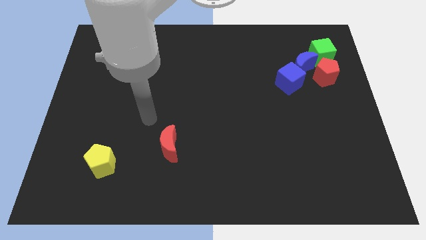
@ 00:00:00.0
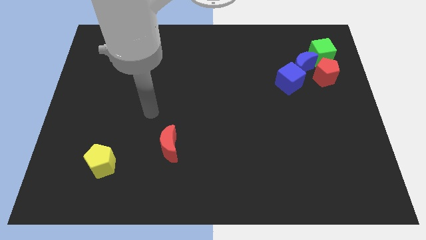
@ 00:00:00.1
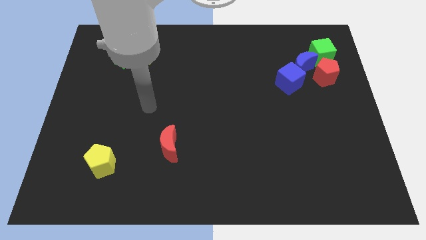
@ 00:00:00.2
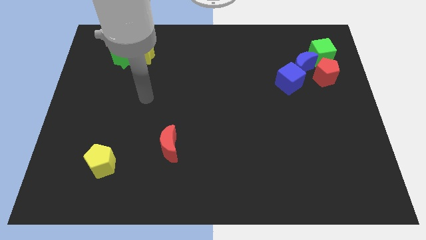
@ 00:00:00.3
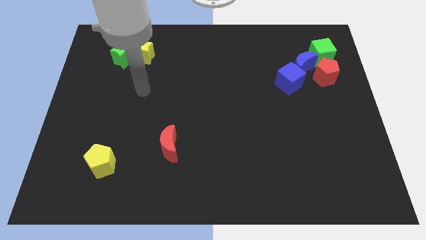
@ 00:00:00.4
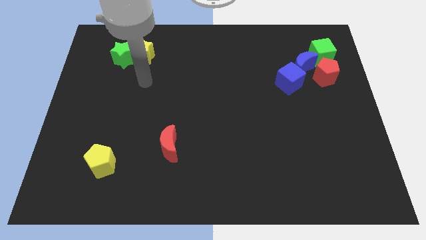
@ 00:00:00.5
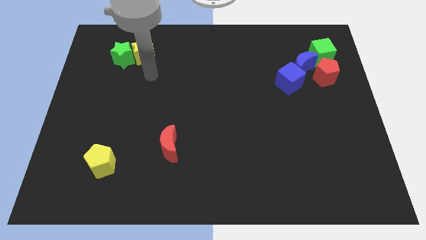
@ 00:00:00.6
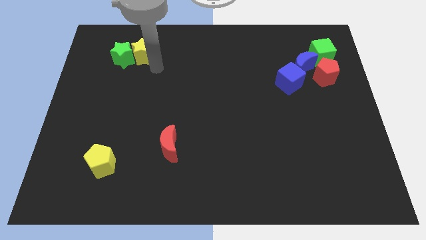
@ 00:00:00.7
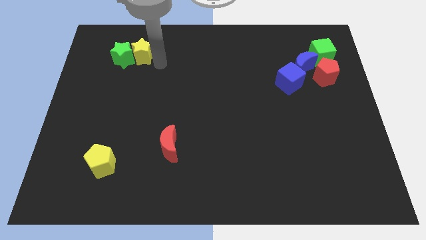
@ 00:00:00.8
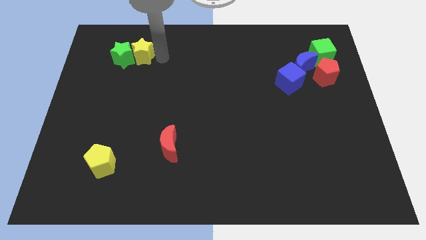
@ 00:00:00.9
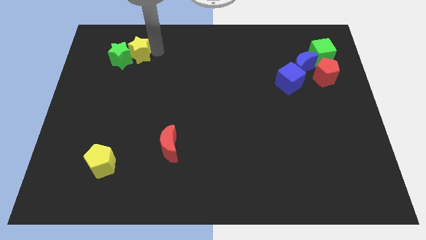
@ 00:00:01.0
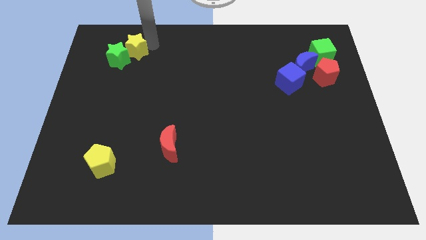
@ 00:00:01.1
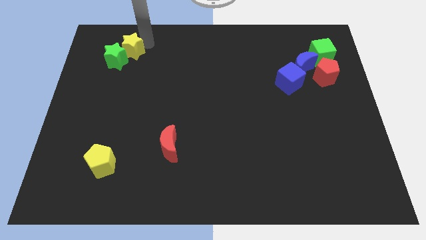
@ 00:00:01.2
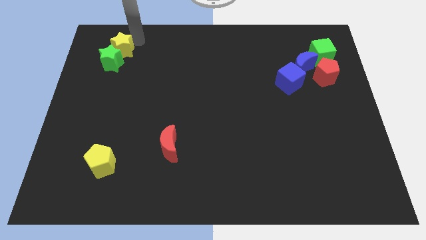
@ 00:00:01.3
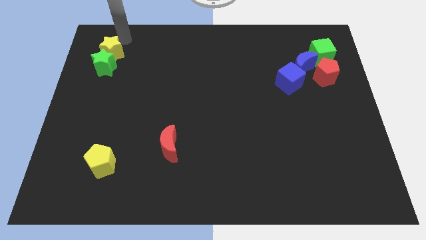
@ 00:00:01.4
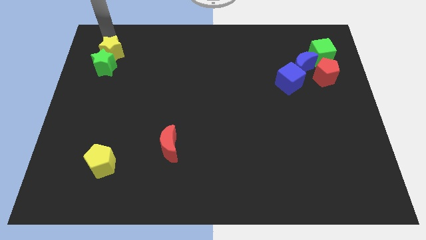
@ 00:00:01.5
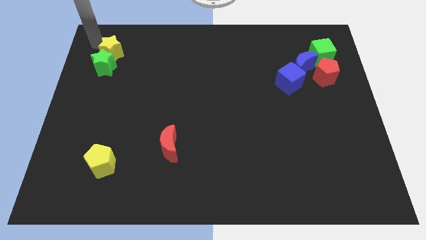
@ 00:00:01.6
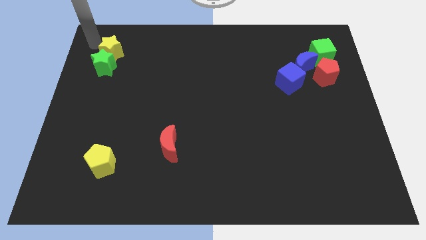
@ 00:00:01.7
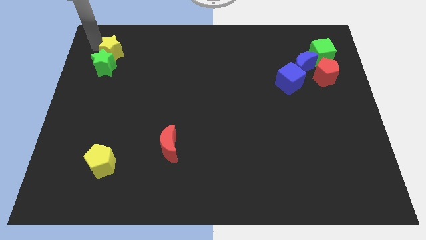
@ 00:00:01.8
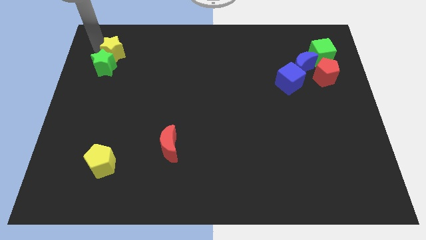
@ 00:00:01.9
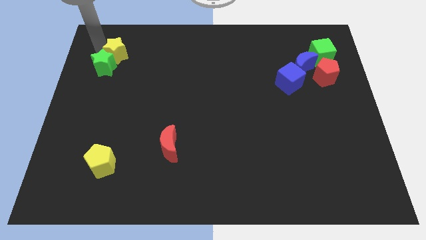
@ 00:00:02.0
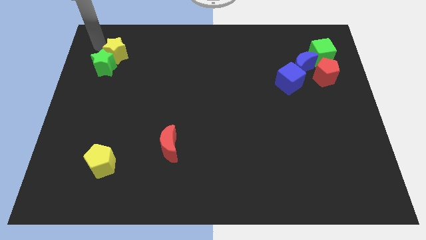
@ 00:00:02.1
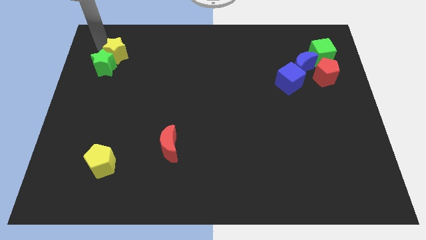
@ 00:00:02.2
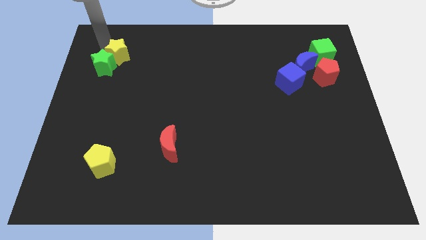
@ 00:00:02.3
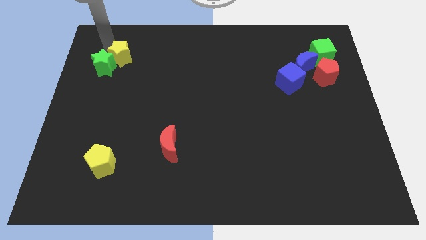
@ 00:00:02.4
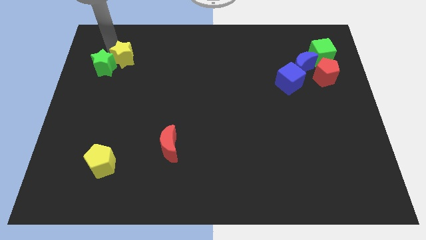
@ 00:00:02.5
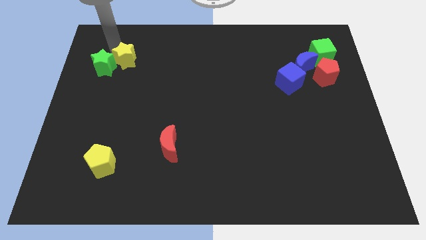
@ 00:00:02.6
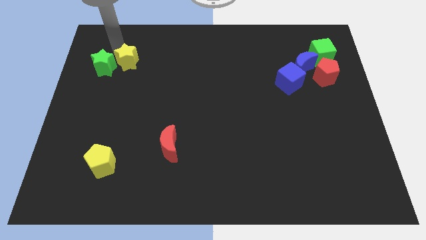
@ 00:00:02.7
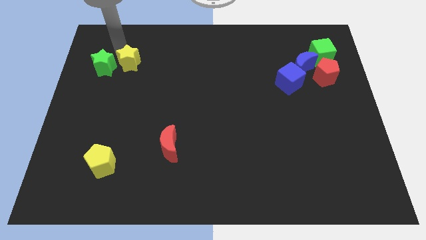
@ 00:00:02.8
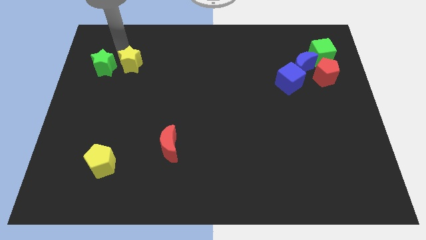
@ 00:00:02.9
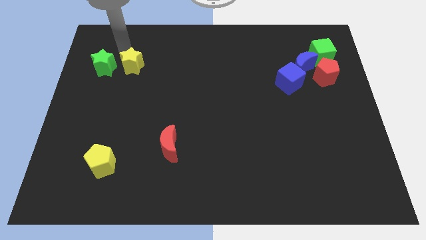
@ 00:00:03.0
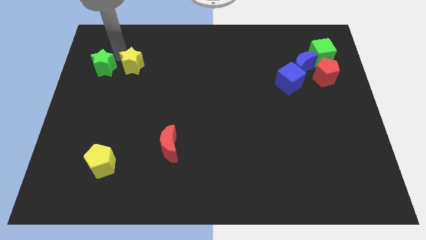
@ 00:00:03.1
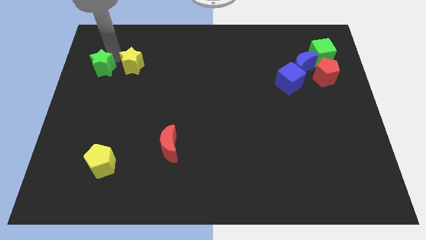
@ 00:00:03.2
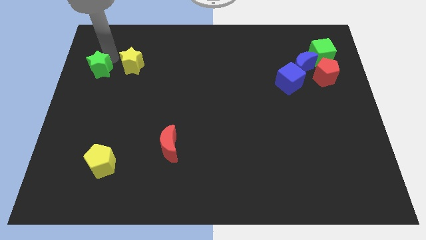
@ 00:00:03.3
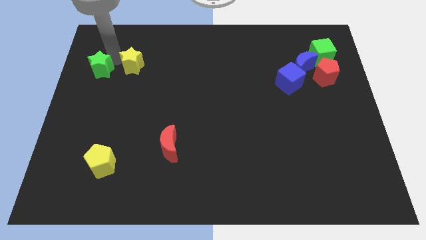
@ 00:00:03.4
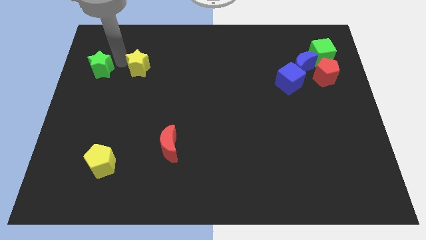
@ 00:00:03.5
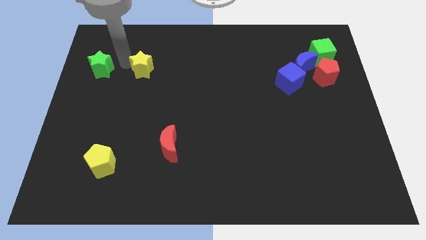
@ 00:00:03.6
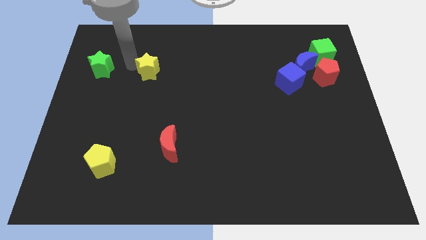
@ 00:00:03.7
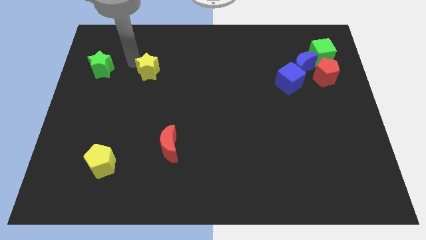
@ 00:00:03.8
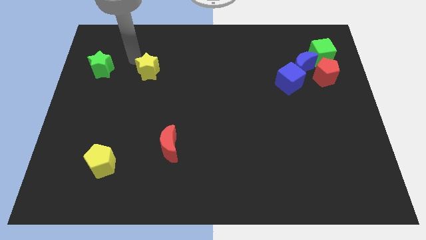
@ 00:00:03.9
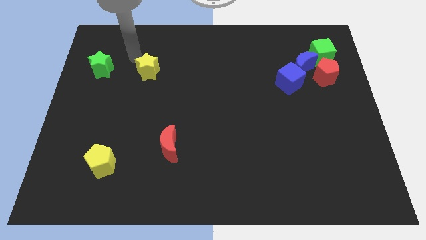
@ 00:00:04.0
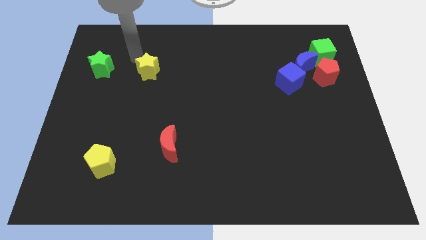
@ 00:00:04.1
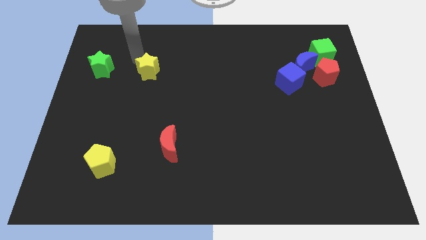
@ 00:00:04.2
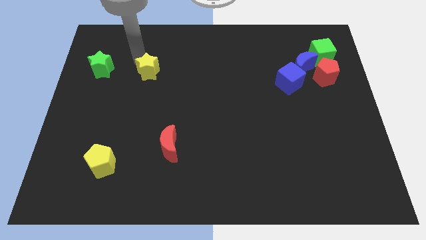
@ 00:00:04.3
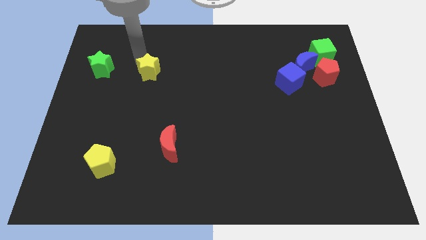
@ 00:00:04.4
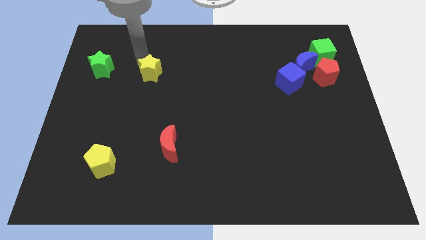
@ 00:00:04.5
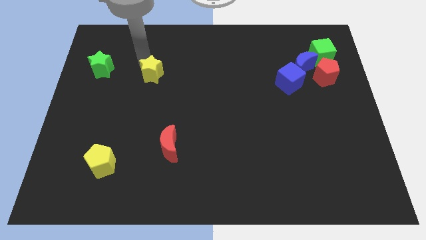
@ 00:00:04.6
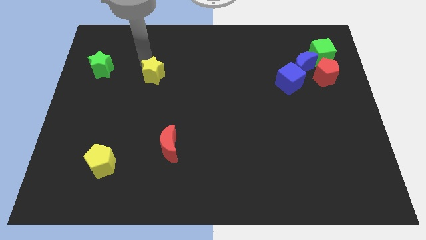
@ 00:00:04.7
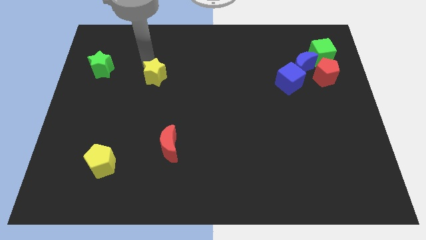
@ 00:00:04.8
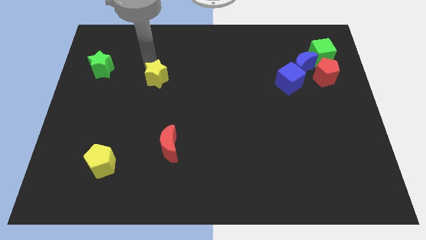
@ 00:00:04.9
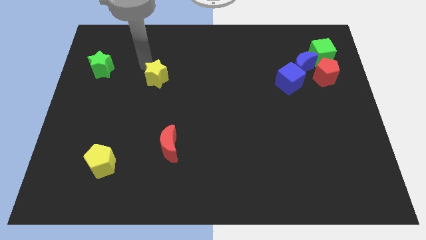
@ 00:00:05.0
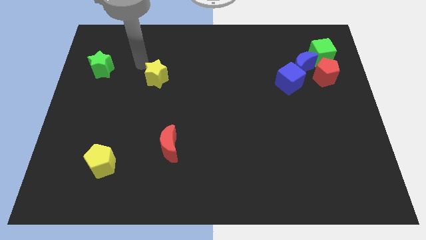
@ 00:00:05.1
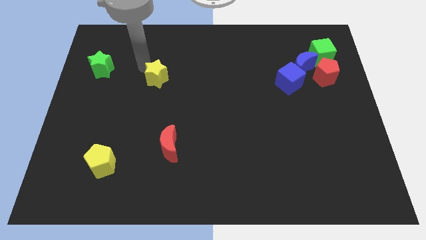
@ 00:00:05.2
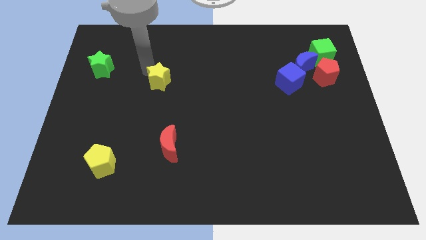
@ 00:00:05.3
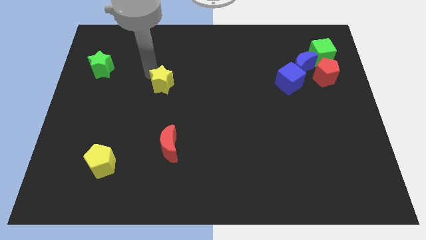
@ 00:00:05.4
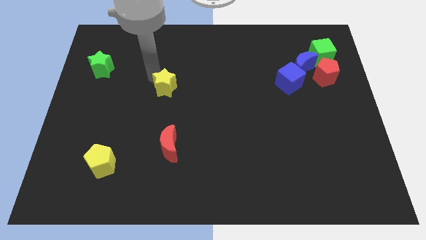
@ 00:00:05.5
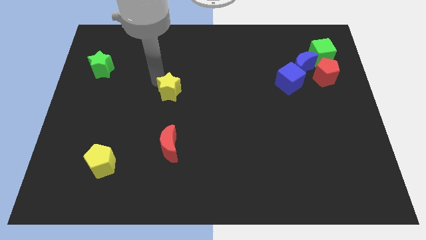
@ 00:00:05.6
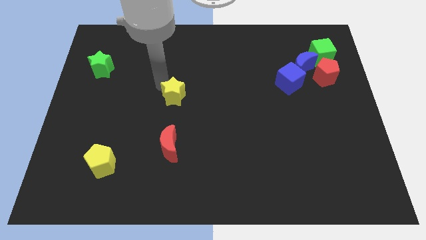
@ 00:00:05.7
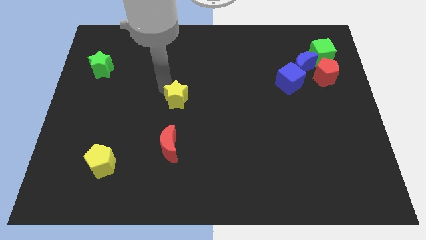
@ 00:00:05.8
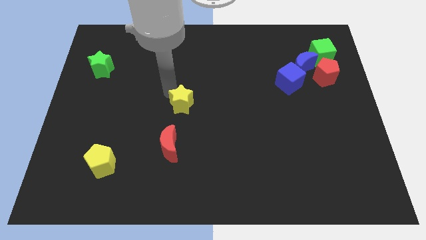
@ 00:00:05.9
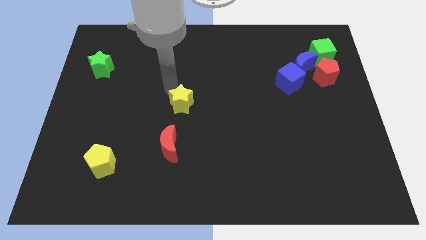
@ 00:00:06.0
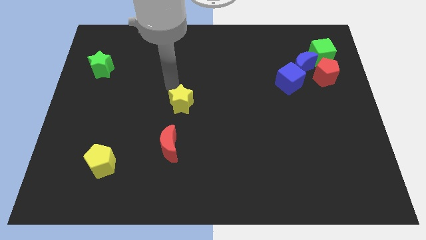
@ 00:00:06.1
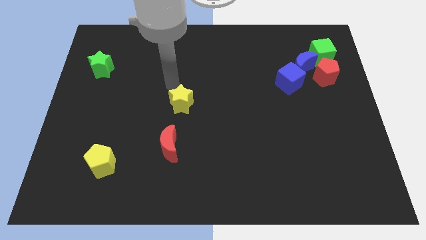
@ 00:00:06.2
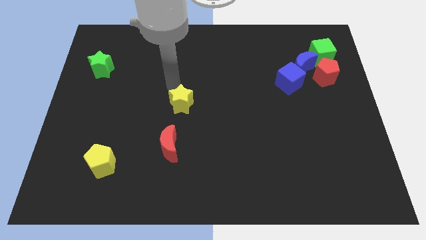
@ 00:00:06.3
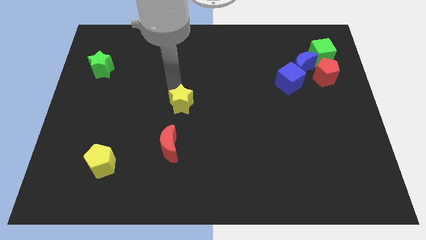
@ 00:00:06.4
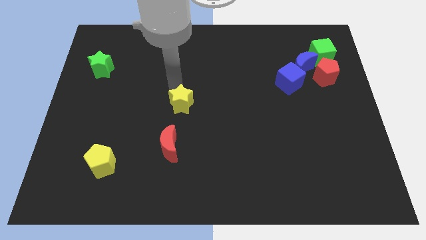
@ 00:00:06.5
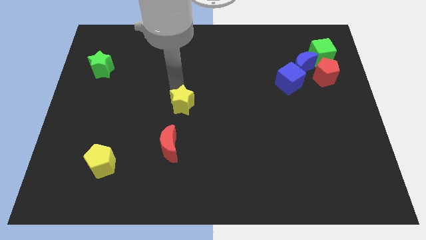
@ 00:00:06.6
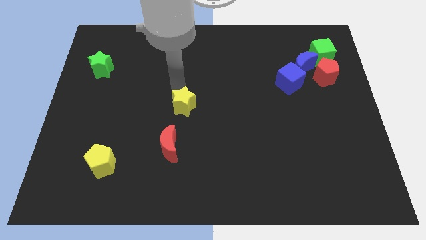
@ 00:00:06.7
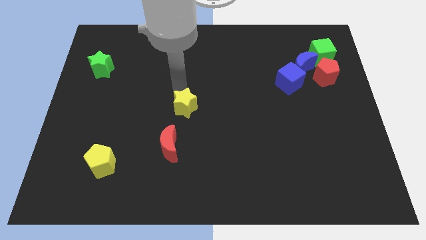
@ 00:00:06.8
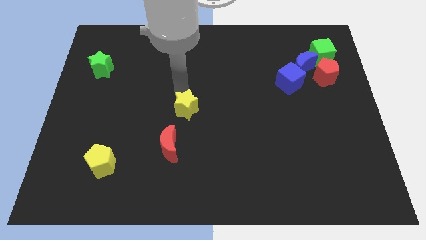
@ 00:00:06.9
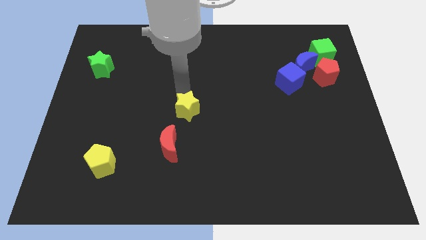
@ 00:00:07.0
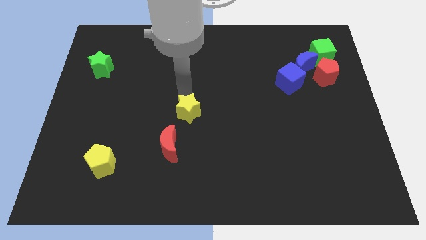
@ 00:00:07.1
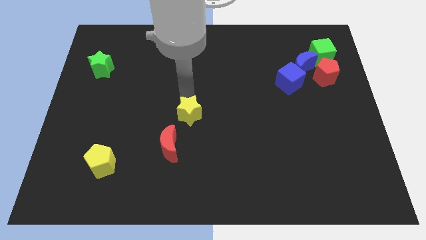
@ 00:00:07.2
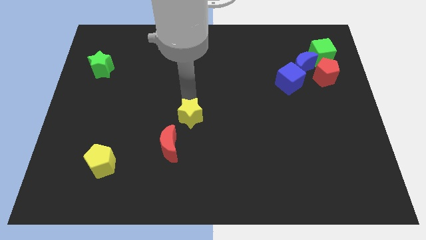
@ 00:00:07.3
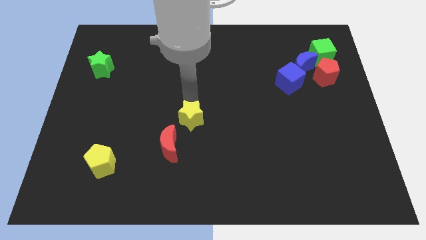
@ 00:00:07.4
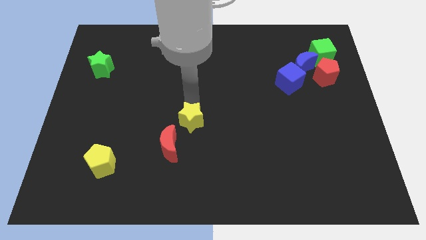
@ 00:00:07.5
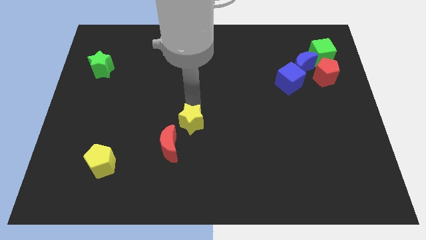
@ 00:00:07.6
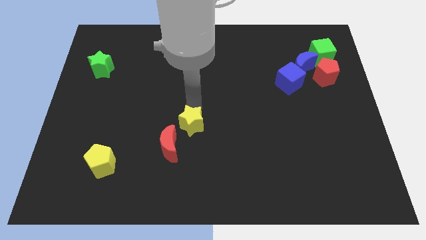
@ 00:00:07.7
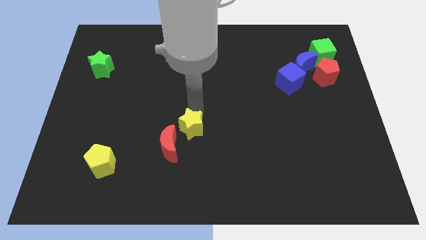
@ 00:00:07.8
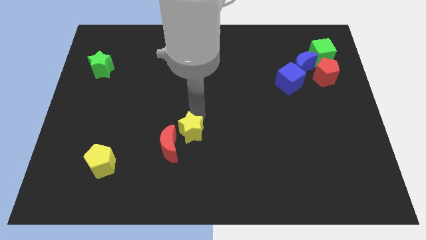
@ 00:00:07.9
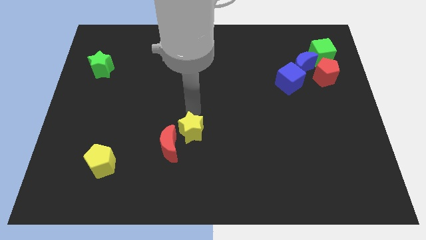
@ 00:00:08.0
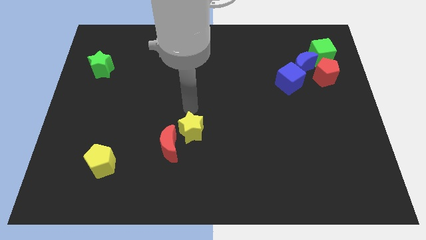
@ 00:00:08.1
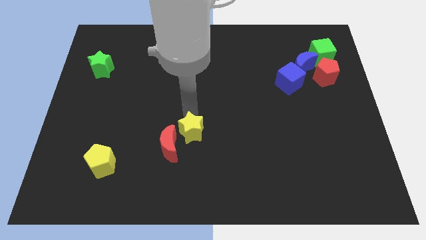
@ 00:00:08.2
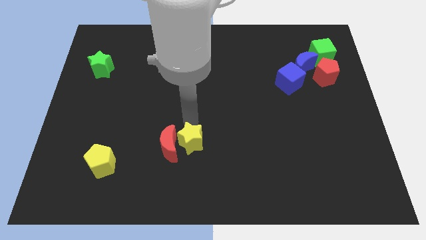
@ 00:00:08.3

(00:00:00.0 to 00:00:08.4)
put the yellow star to the bottom right of the red moon
